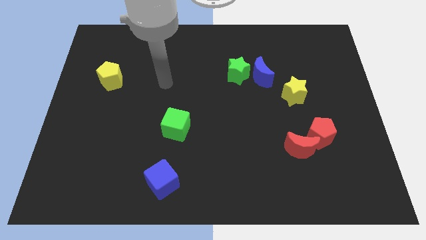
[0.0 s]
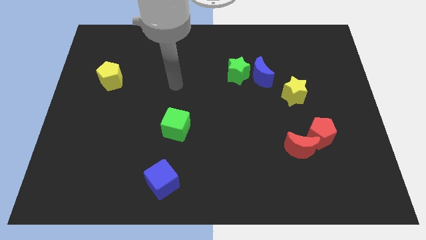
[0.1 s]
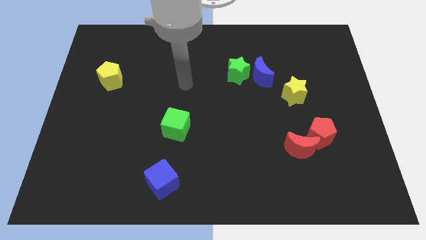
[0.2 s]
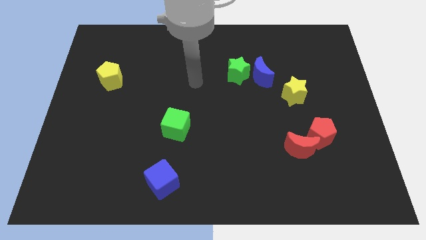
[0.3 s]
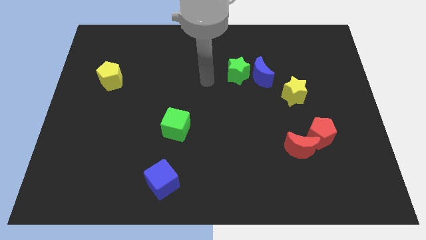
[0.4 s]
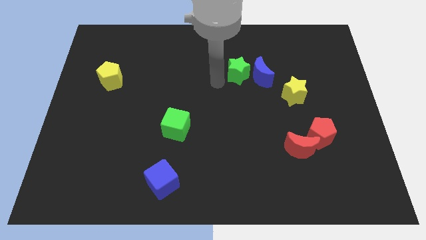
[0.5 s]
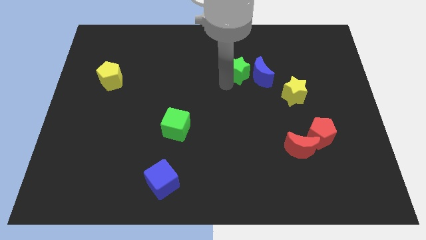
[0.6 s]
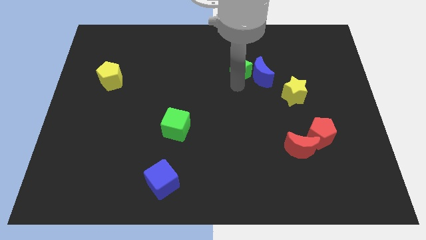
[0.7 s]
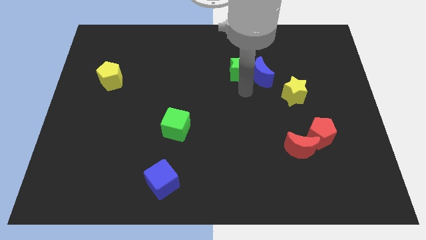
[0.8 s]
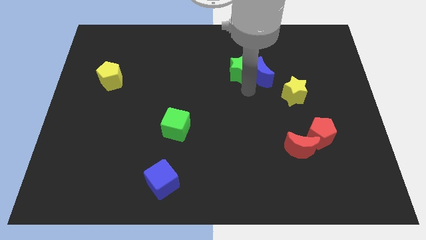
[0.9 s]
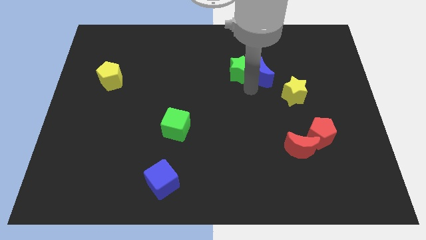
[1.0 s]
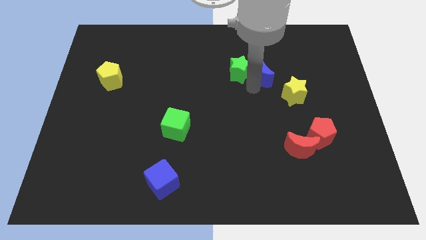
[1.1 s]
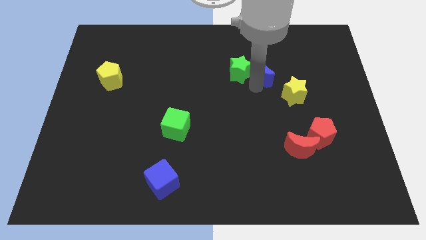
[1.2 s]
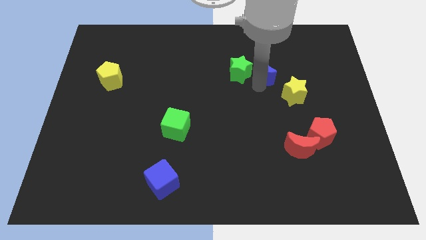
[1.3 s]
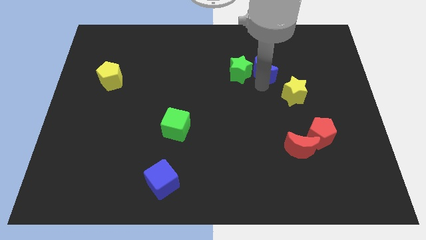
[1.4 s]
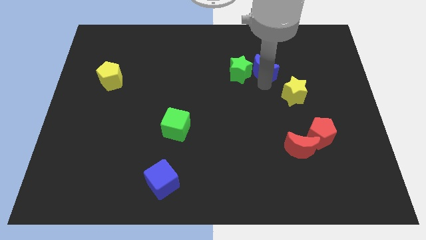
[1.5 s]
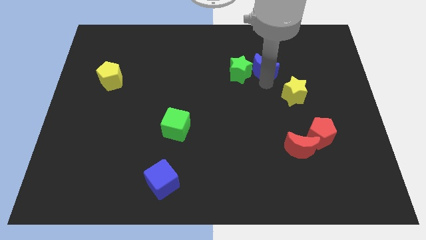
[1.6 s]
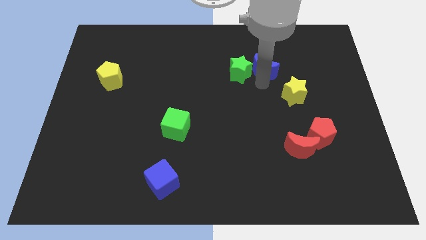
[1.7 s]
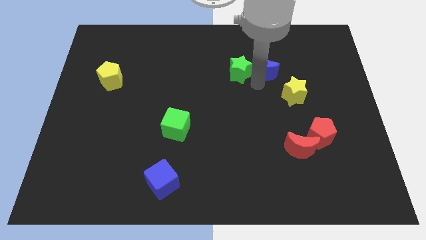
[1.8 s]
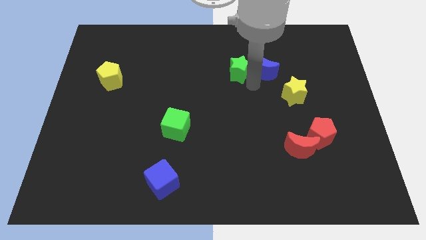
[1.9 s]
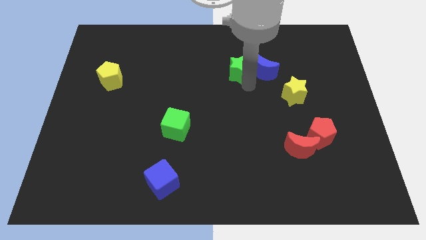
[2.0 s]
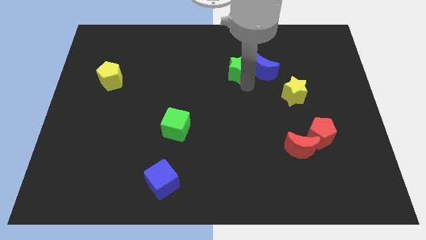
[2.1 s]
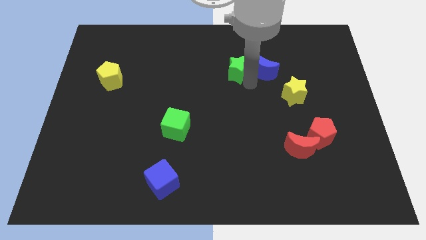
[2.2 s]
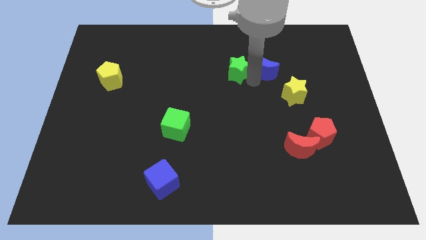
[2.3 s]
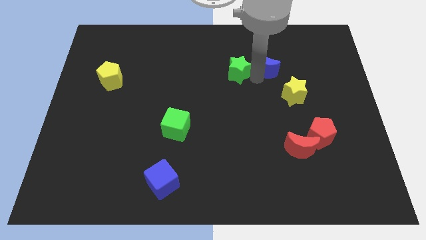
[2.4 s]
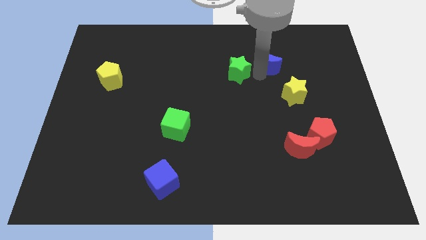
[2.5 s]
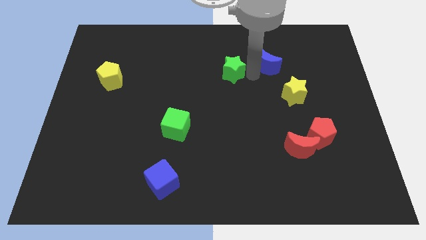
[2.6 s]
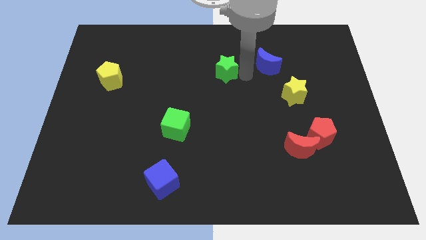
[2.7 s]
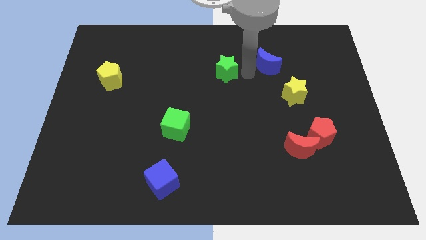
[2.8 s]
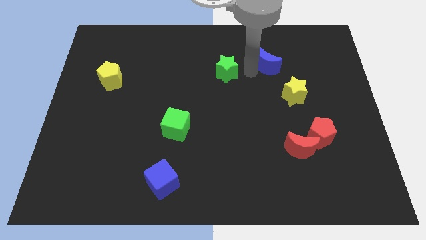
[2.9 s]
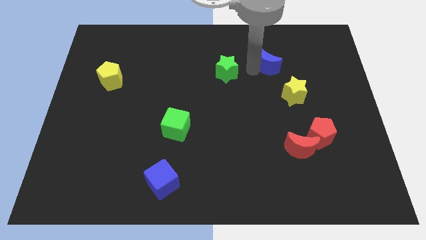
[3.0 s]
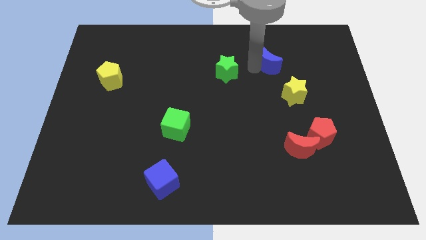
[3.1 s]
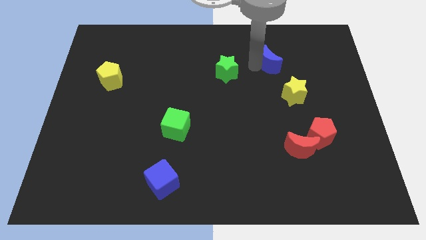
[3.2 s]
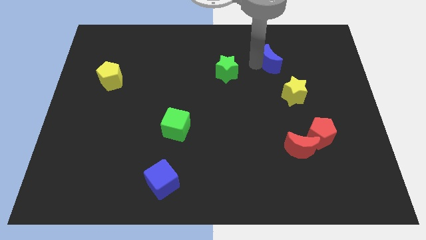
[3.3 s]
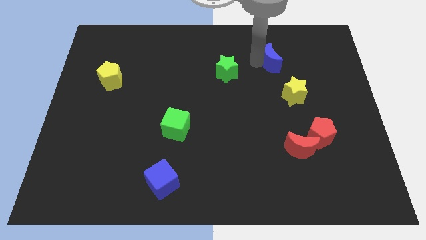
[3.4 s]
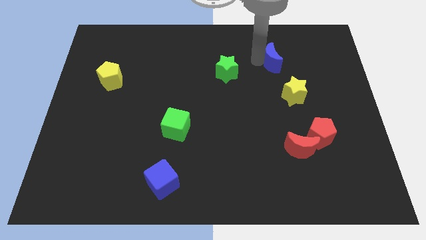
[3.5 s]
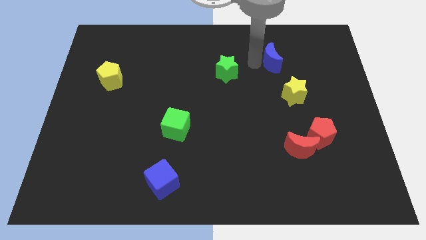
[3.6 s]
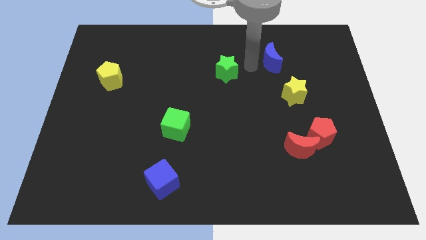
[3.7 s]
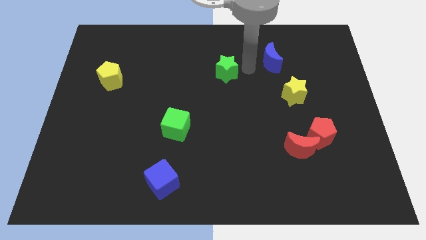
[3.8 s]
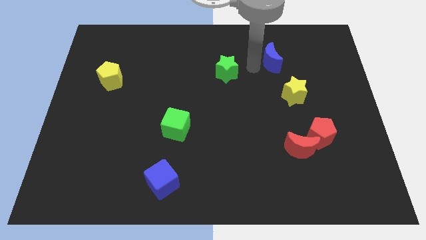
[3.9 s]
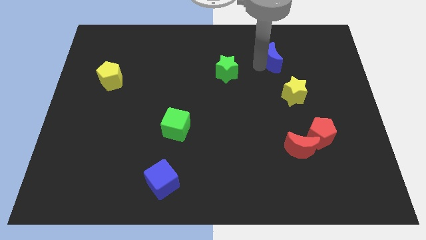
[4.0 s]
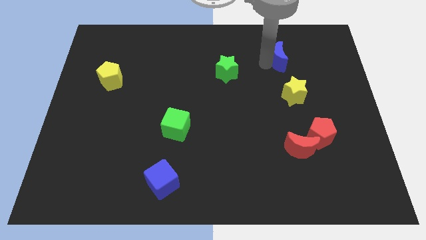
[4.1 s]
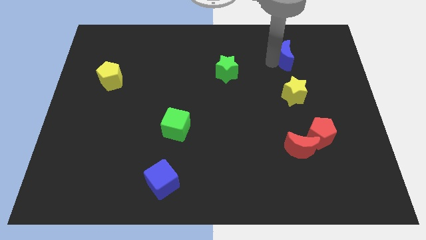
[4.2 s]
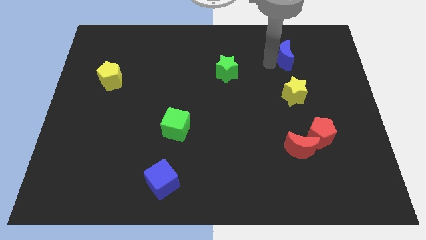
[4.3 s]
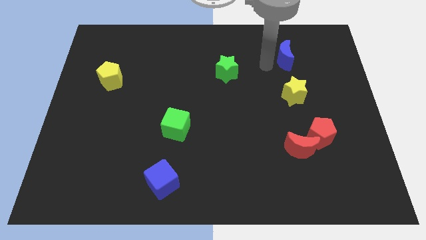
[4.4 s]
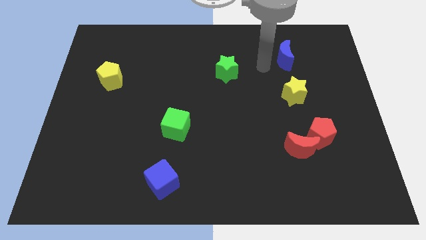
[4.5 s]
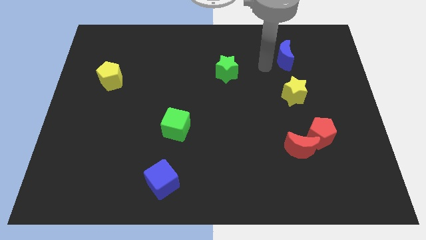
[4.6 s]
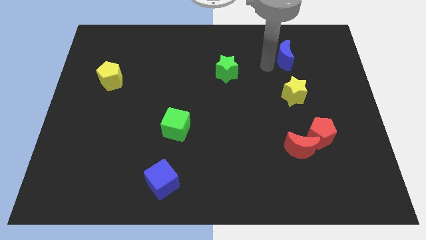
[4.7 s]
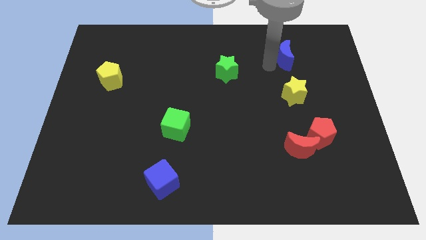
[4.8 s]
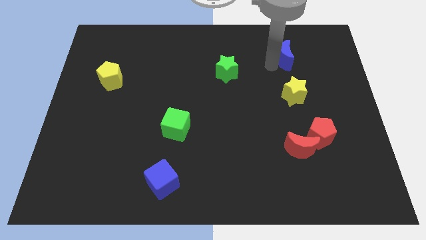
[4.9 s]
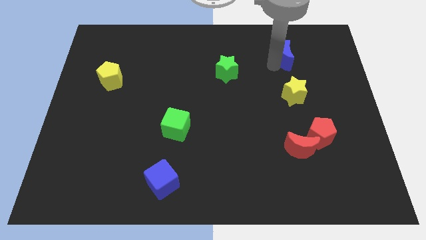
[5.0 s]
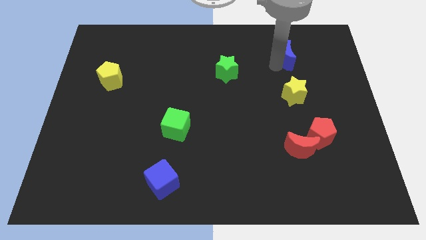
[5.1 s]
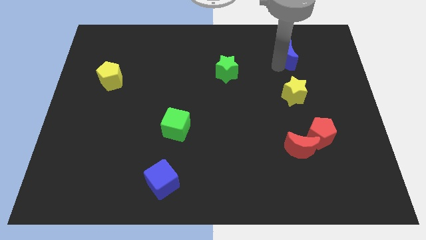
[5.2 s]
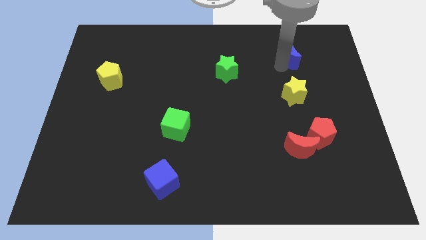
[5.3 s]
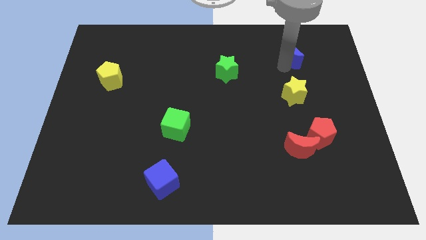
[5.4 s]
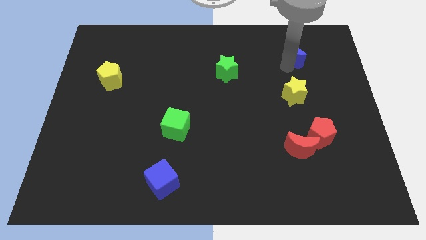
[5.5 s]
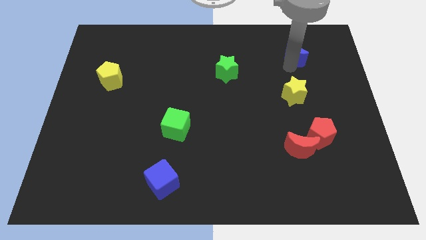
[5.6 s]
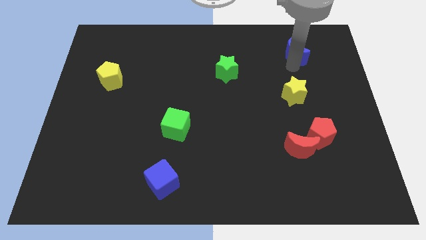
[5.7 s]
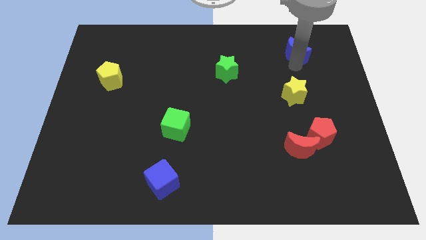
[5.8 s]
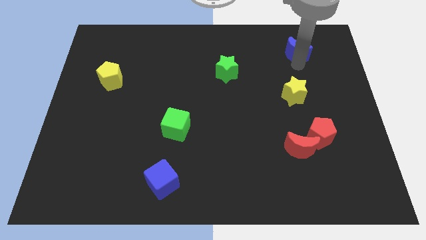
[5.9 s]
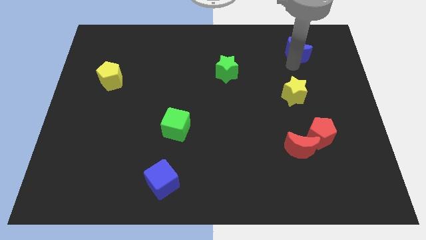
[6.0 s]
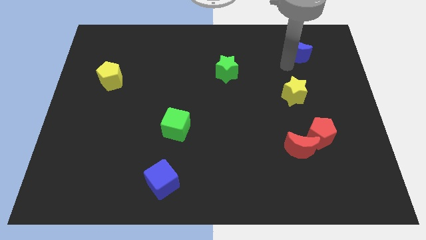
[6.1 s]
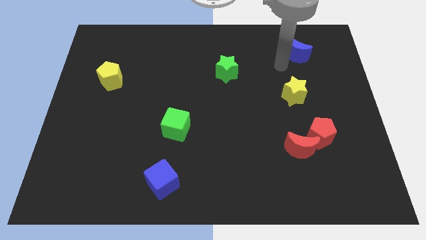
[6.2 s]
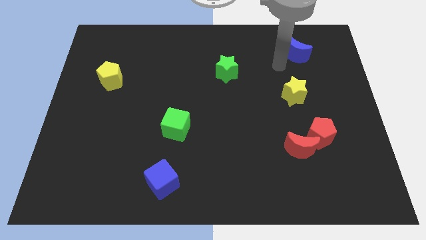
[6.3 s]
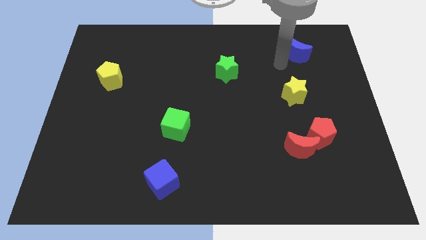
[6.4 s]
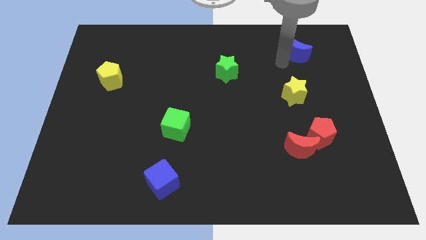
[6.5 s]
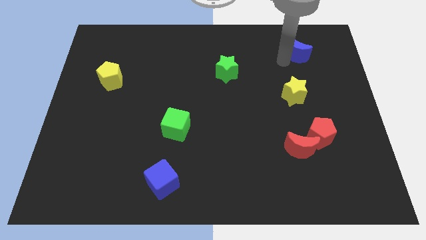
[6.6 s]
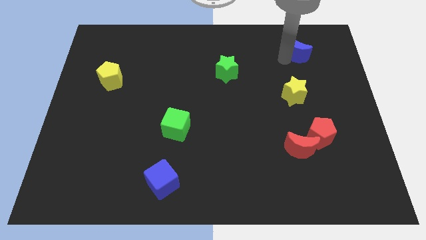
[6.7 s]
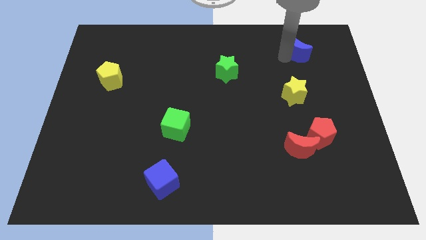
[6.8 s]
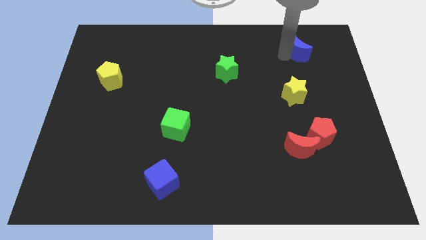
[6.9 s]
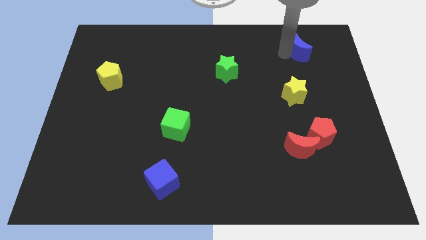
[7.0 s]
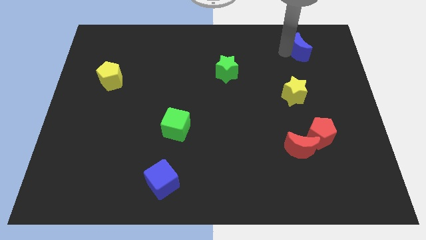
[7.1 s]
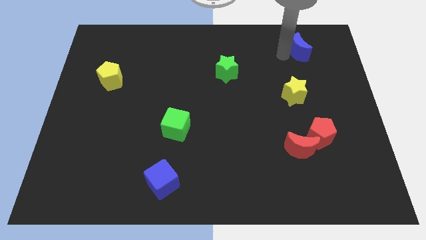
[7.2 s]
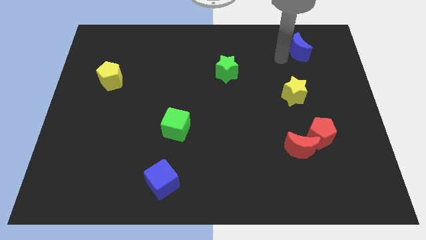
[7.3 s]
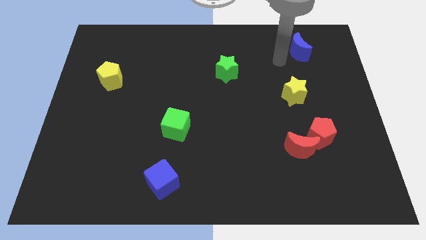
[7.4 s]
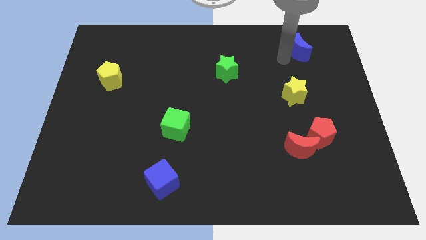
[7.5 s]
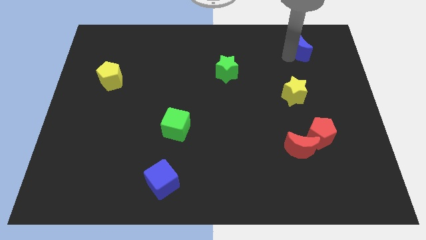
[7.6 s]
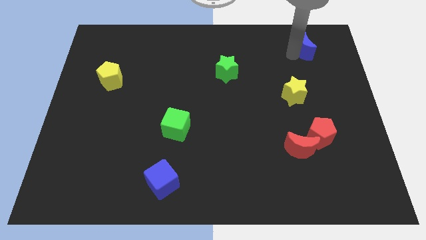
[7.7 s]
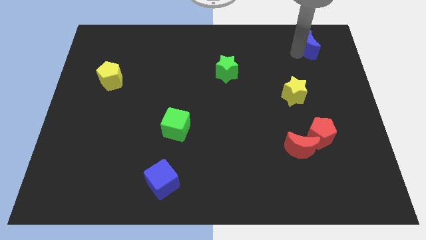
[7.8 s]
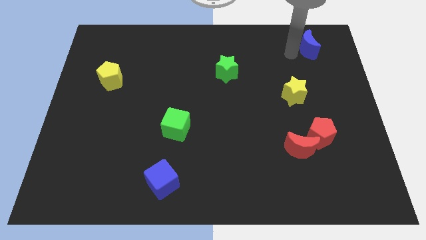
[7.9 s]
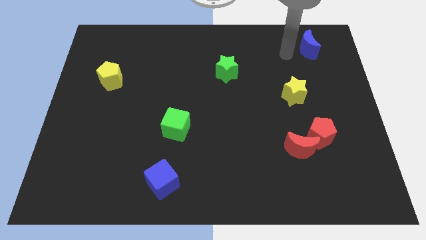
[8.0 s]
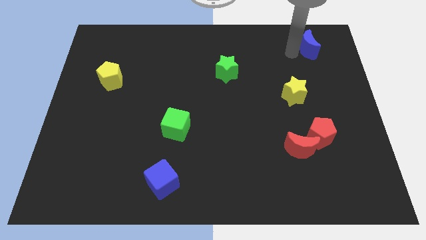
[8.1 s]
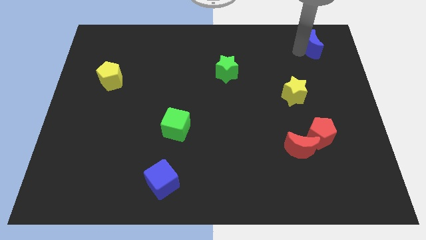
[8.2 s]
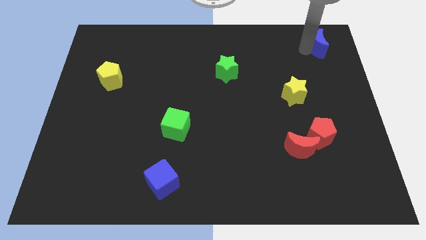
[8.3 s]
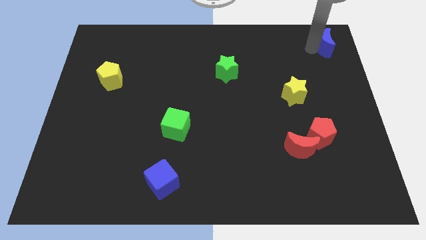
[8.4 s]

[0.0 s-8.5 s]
push the blue moon to the top right corner
